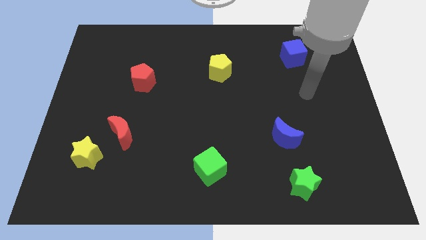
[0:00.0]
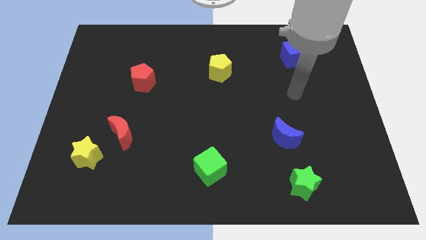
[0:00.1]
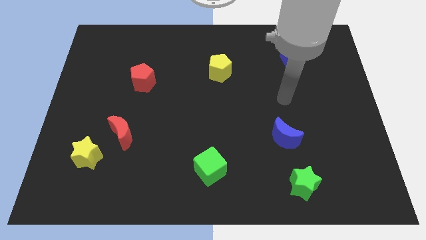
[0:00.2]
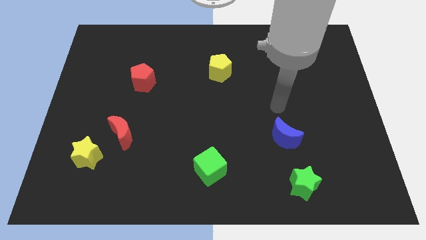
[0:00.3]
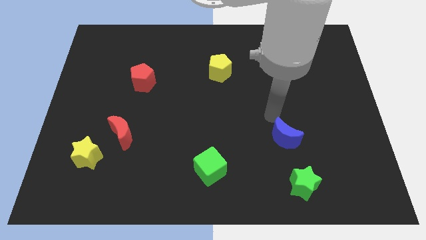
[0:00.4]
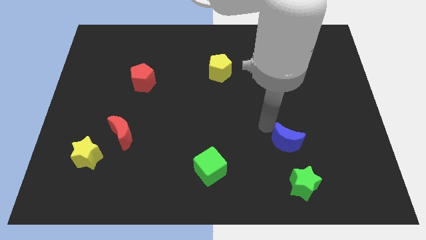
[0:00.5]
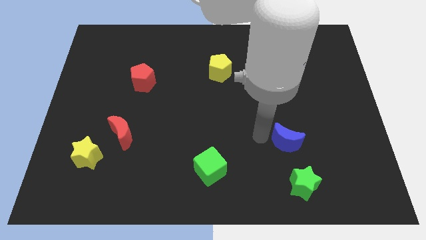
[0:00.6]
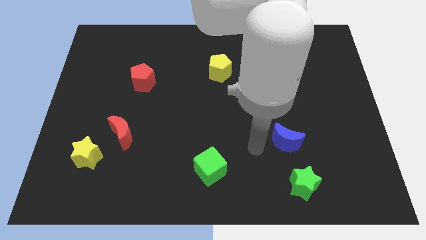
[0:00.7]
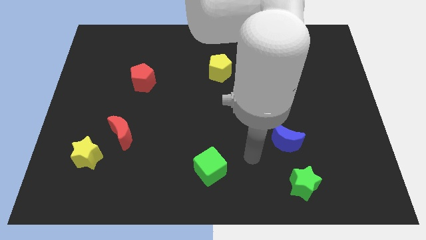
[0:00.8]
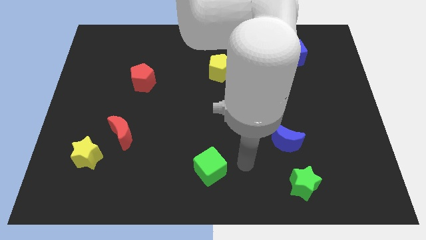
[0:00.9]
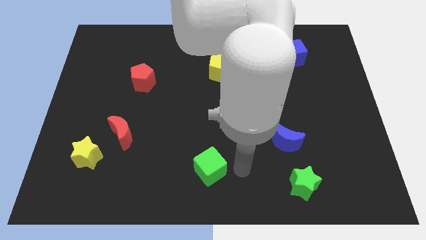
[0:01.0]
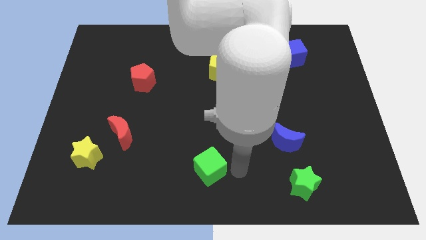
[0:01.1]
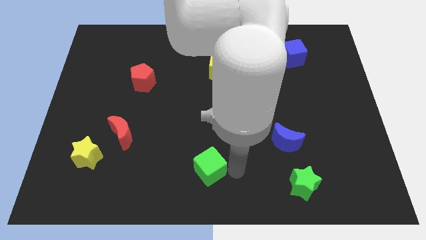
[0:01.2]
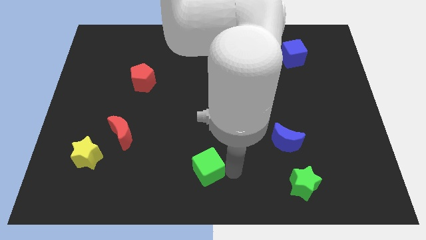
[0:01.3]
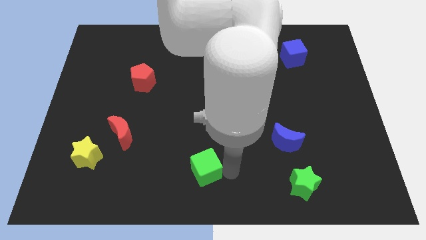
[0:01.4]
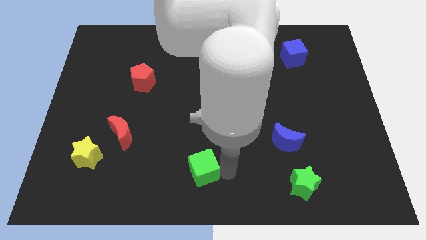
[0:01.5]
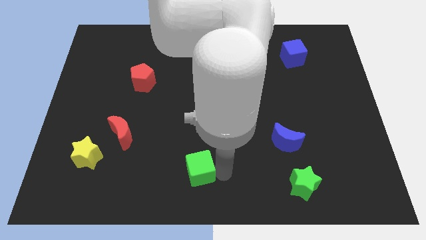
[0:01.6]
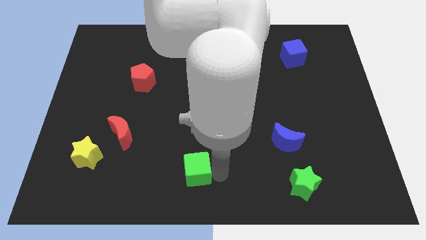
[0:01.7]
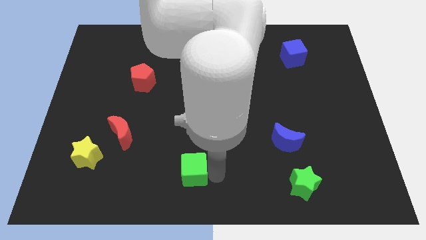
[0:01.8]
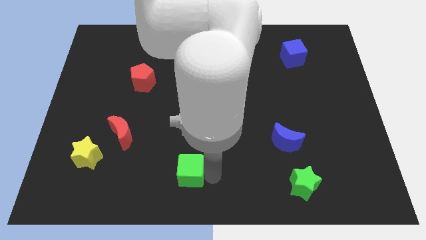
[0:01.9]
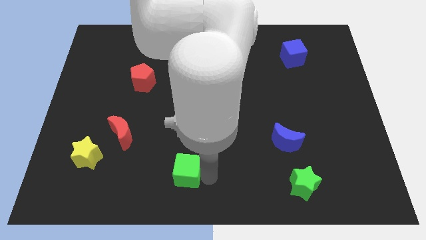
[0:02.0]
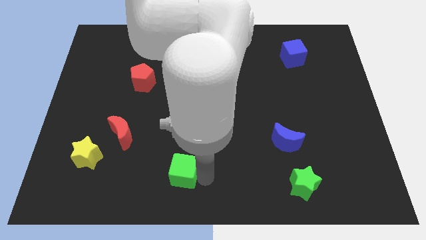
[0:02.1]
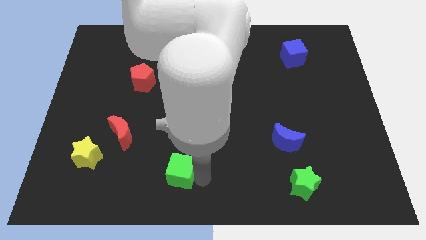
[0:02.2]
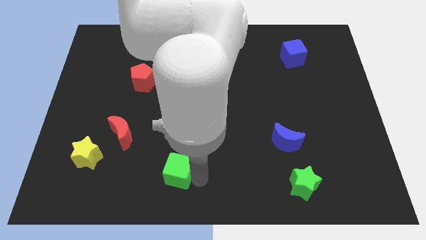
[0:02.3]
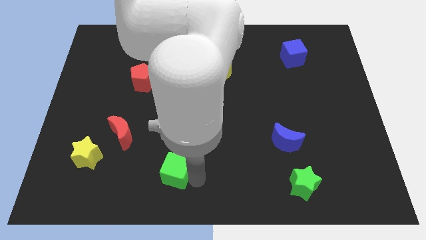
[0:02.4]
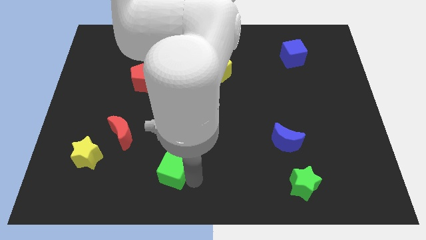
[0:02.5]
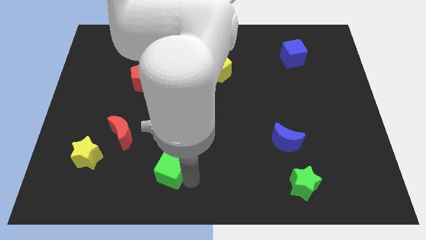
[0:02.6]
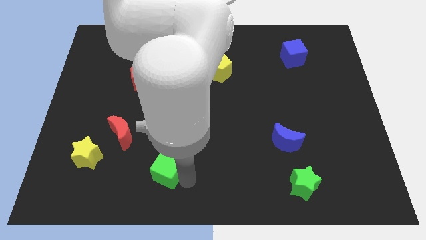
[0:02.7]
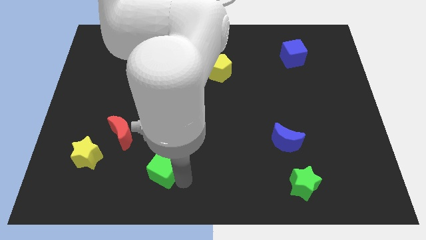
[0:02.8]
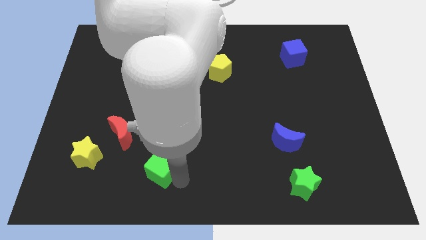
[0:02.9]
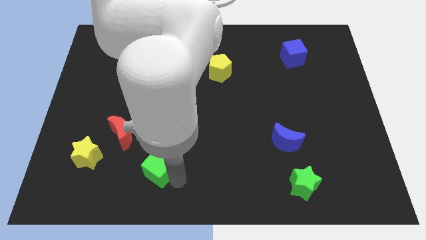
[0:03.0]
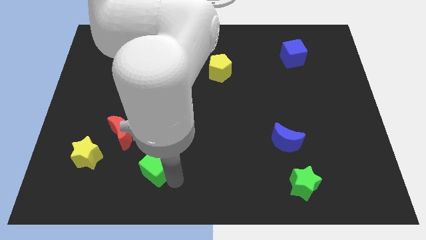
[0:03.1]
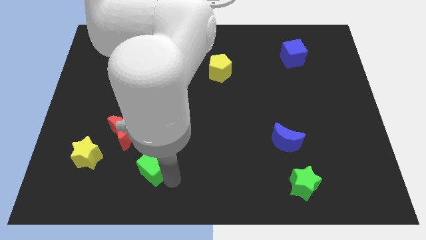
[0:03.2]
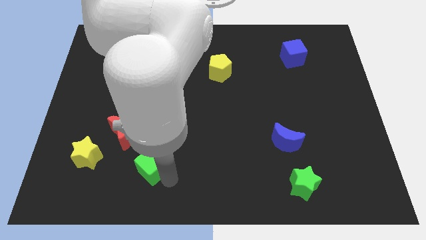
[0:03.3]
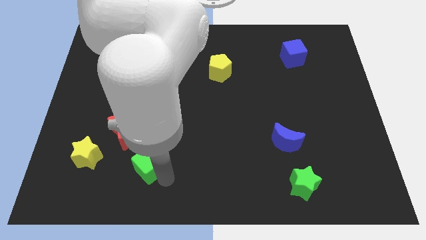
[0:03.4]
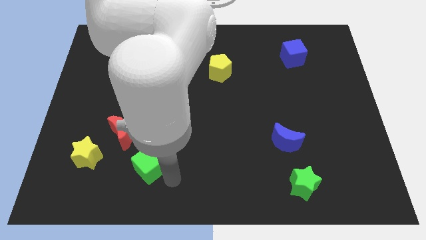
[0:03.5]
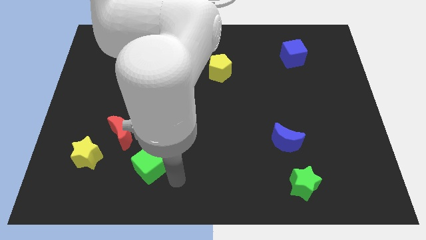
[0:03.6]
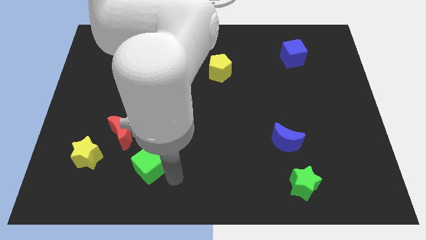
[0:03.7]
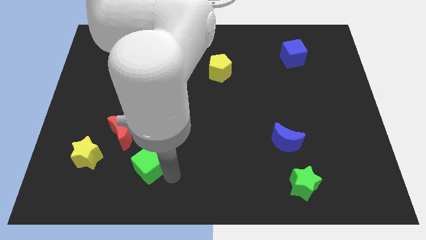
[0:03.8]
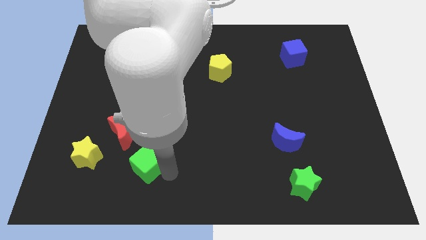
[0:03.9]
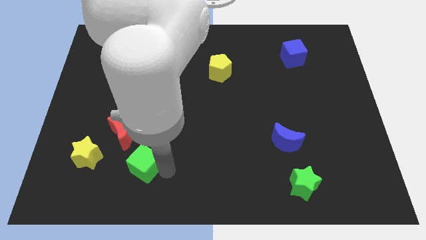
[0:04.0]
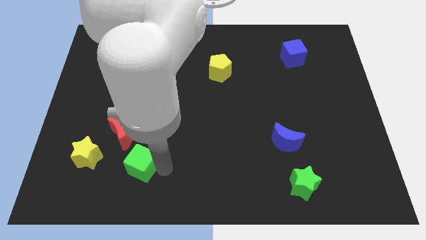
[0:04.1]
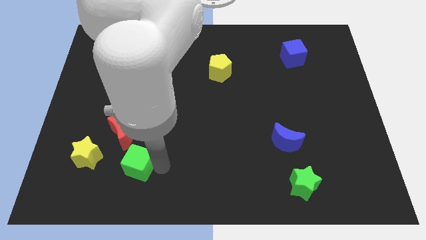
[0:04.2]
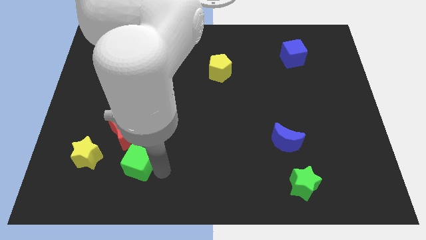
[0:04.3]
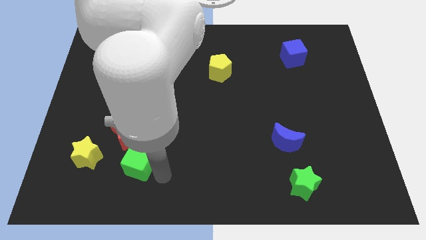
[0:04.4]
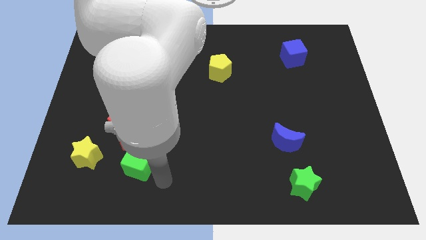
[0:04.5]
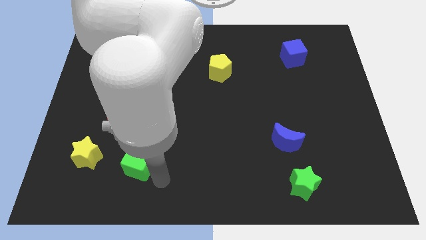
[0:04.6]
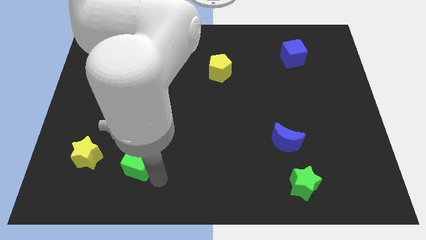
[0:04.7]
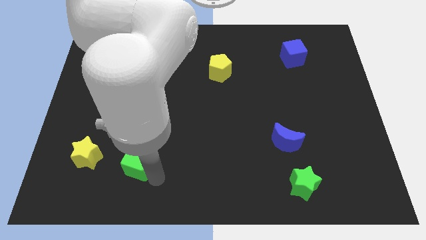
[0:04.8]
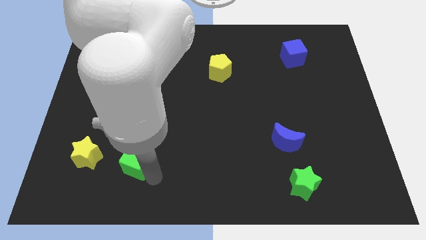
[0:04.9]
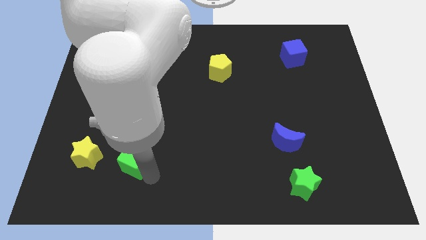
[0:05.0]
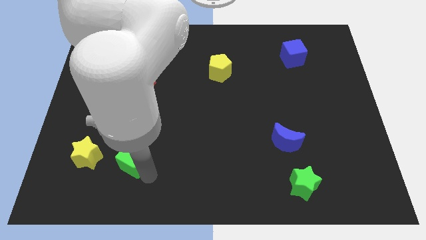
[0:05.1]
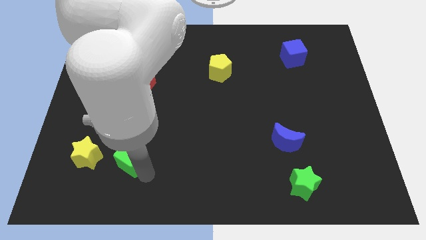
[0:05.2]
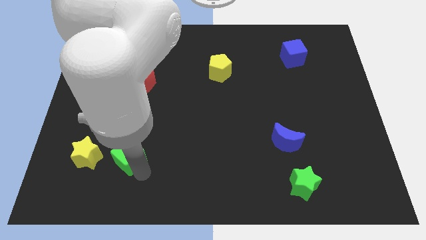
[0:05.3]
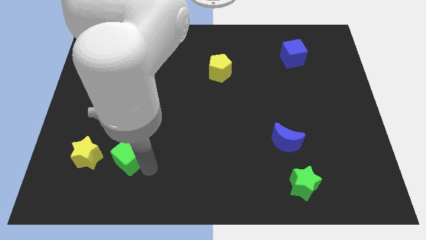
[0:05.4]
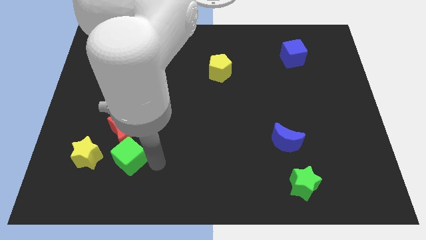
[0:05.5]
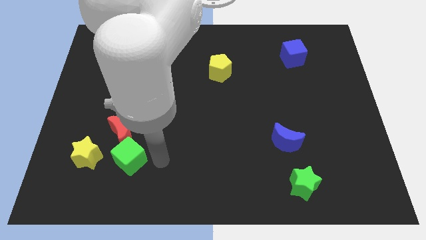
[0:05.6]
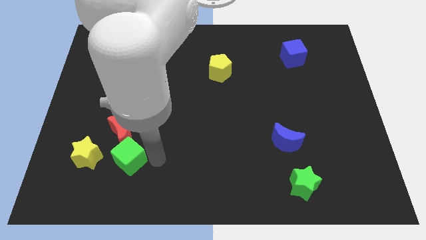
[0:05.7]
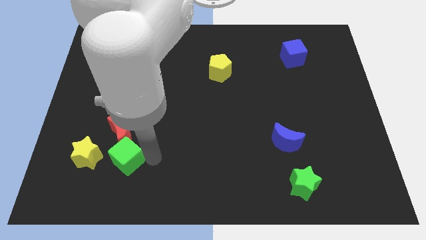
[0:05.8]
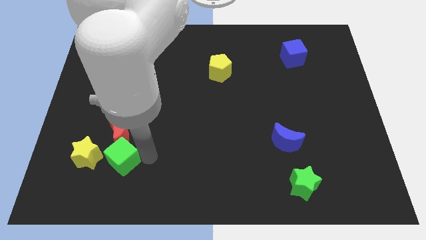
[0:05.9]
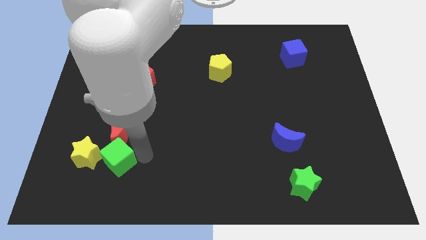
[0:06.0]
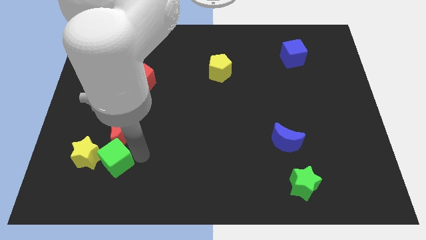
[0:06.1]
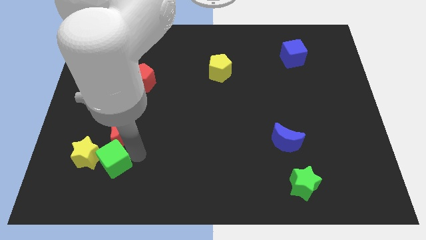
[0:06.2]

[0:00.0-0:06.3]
slide the green cube next to the yellow star
